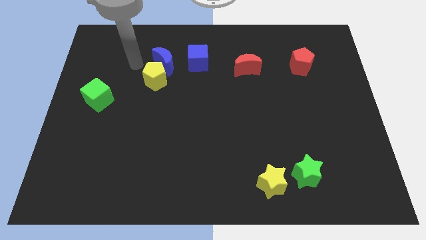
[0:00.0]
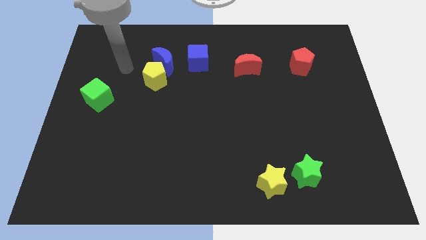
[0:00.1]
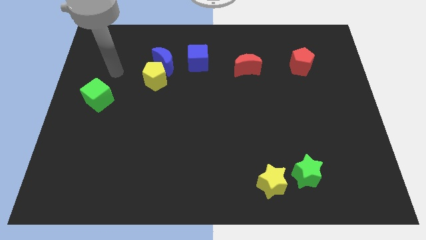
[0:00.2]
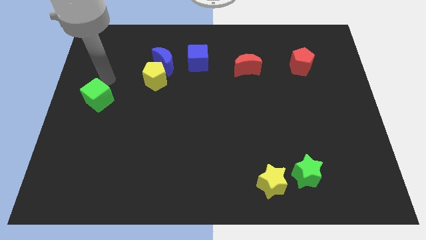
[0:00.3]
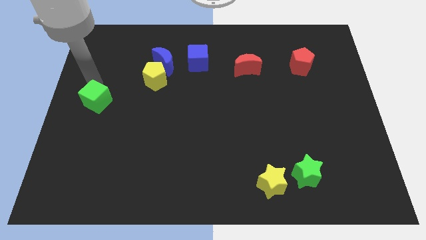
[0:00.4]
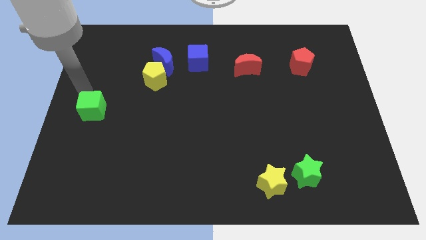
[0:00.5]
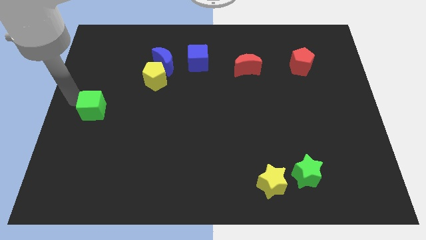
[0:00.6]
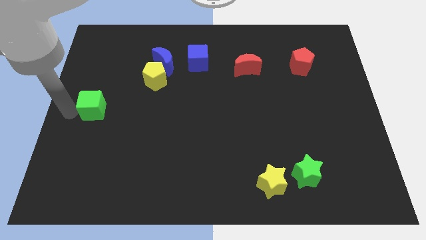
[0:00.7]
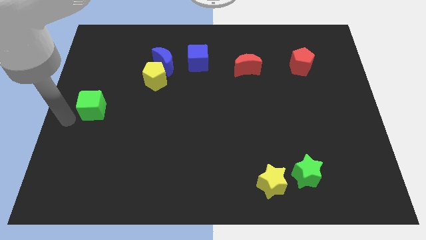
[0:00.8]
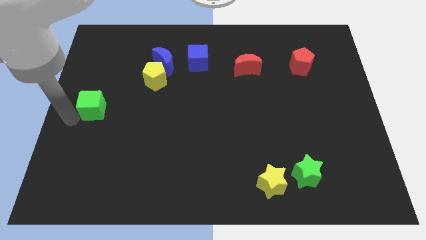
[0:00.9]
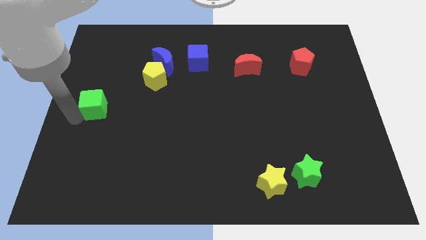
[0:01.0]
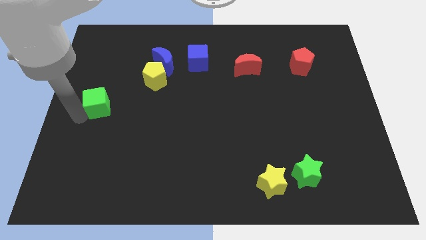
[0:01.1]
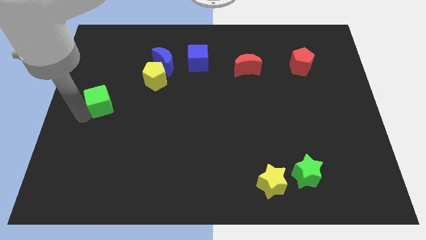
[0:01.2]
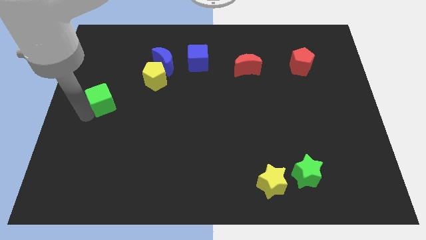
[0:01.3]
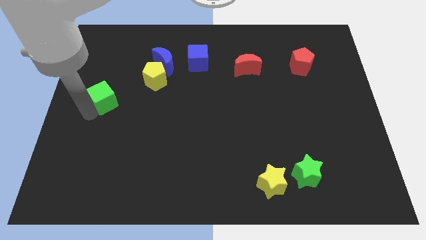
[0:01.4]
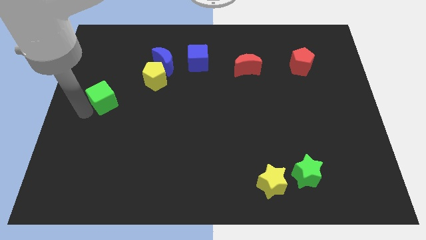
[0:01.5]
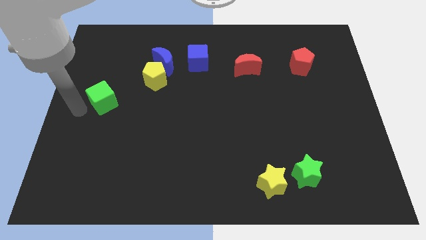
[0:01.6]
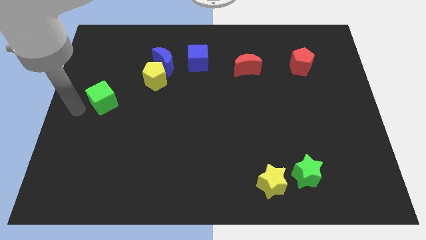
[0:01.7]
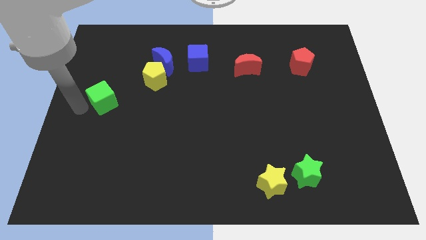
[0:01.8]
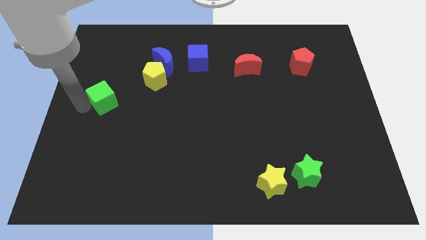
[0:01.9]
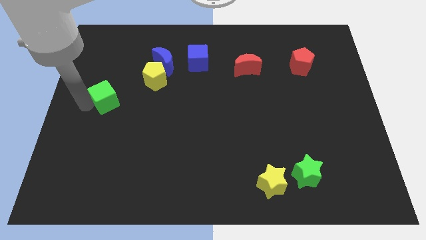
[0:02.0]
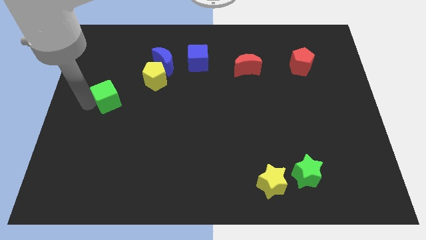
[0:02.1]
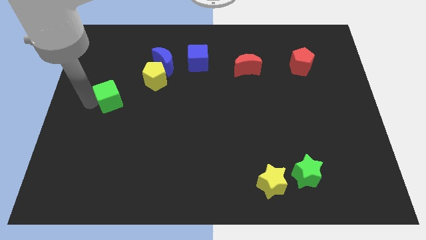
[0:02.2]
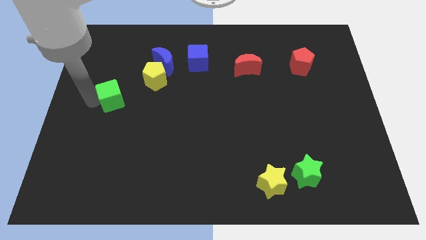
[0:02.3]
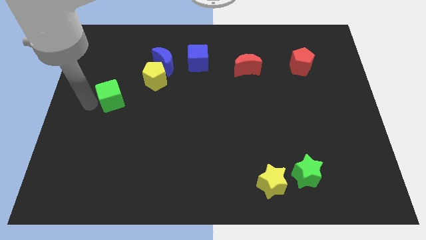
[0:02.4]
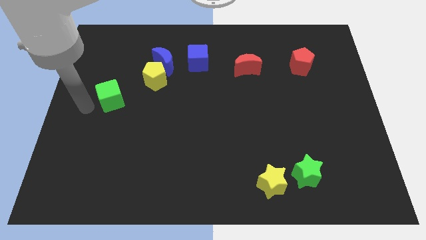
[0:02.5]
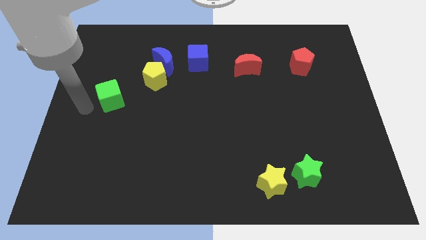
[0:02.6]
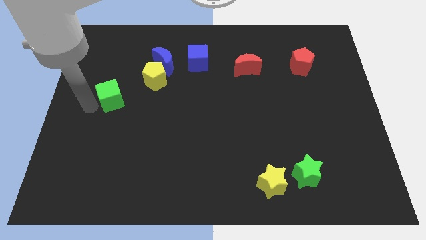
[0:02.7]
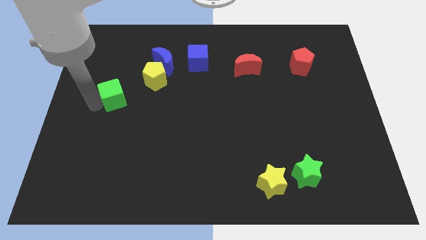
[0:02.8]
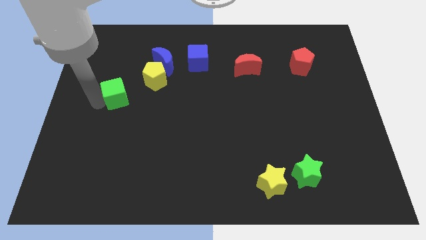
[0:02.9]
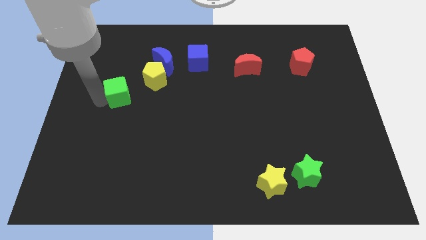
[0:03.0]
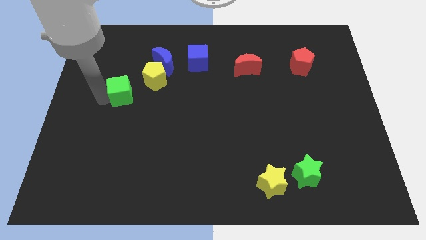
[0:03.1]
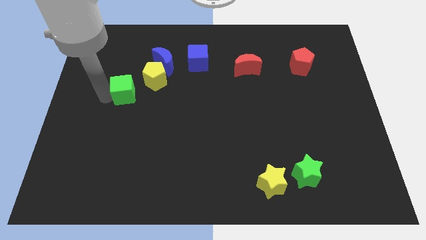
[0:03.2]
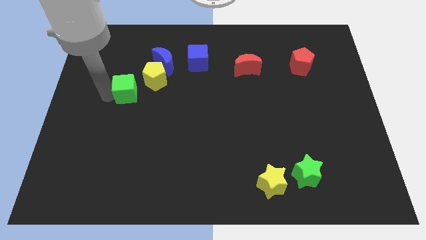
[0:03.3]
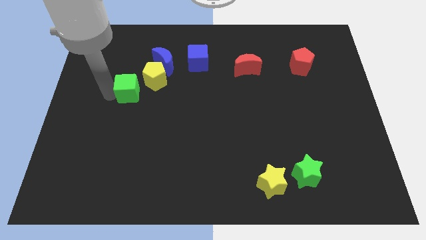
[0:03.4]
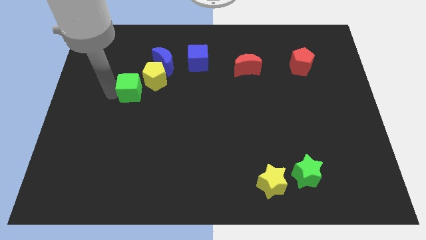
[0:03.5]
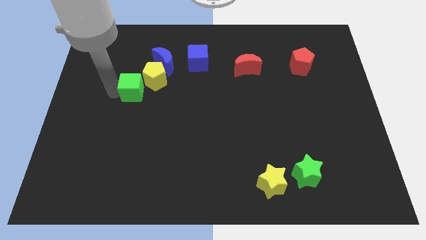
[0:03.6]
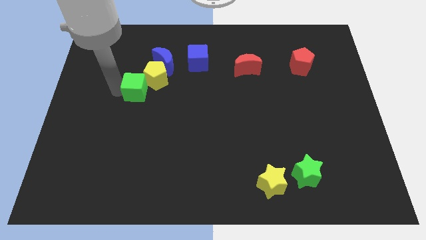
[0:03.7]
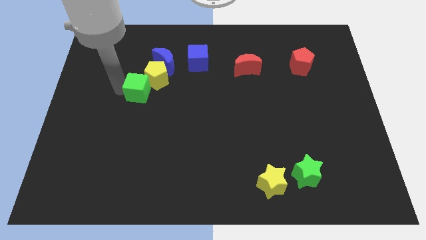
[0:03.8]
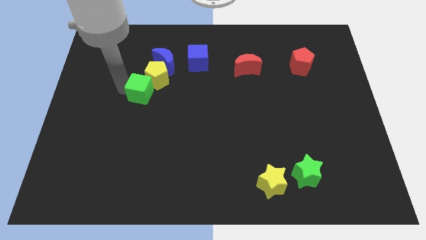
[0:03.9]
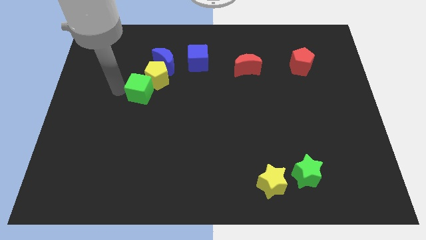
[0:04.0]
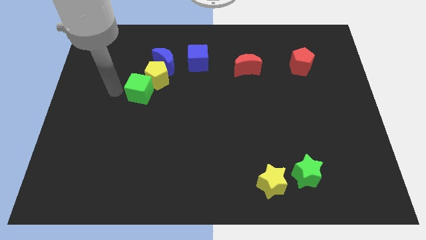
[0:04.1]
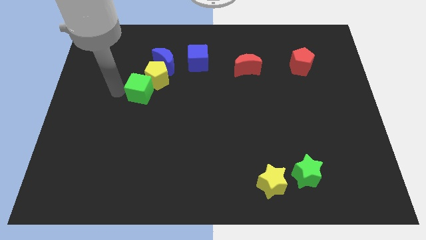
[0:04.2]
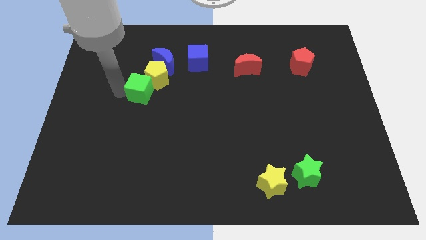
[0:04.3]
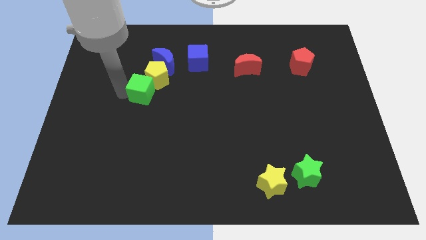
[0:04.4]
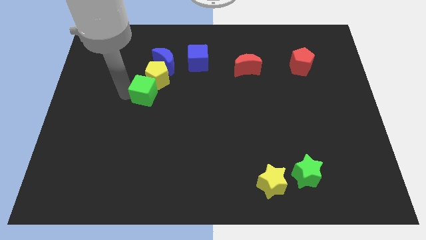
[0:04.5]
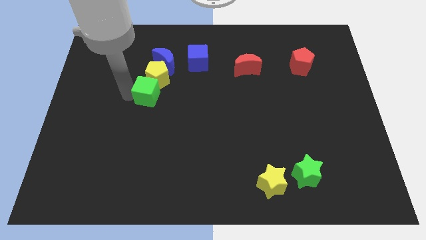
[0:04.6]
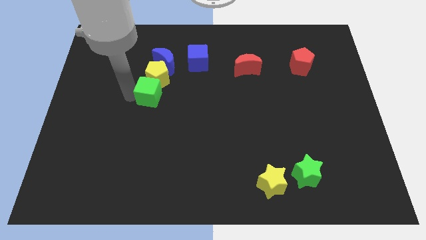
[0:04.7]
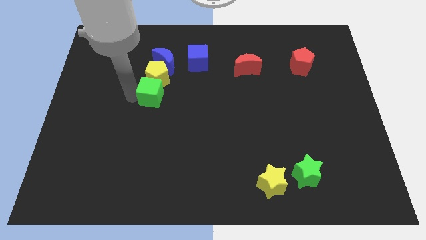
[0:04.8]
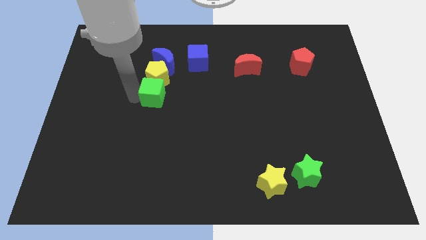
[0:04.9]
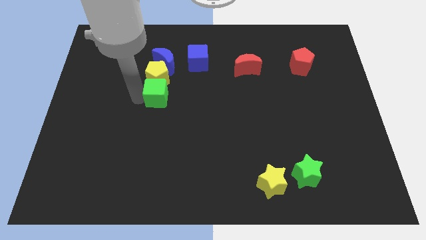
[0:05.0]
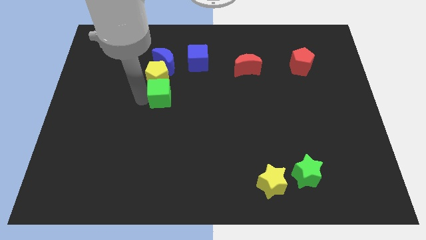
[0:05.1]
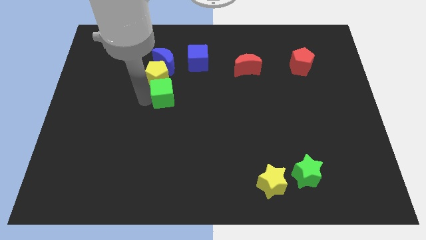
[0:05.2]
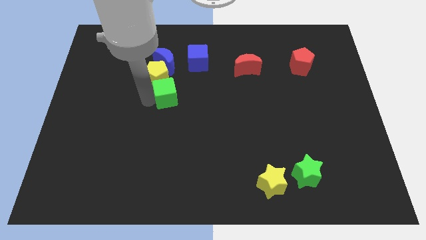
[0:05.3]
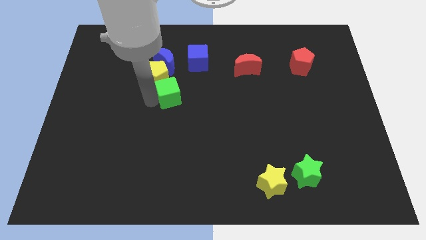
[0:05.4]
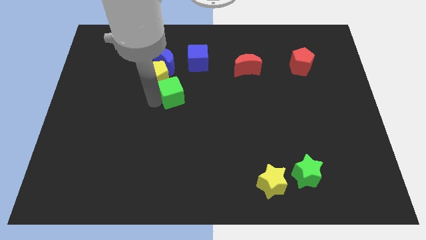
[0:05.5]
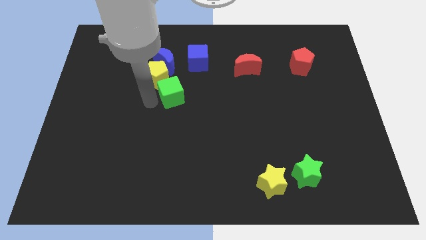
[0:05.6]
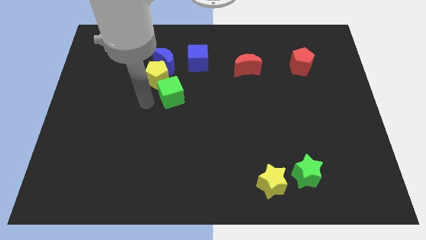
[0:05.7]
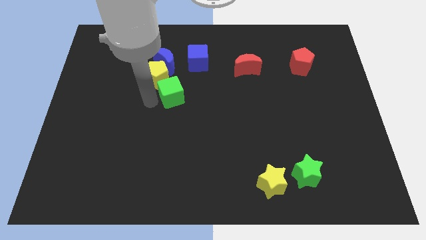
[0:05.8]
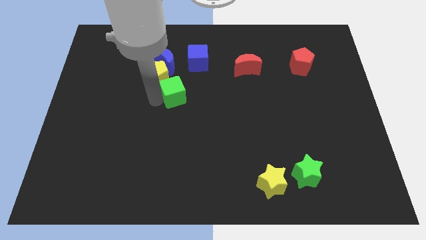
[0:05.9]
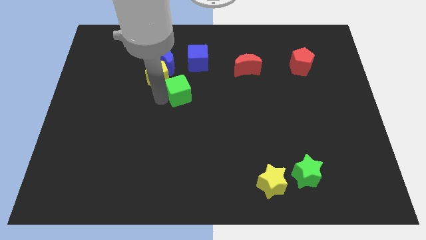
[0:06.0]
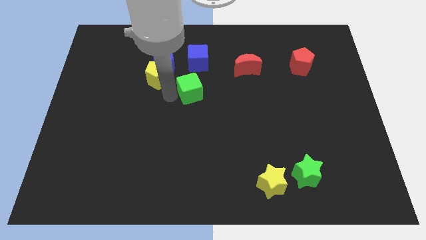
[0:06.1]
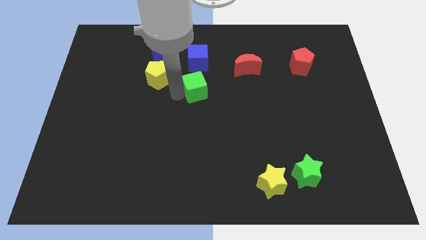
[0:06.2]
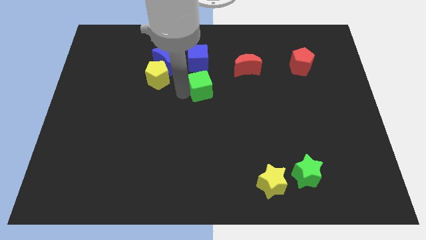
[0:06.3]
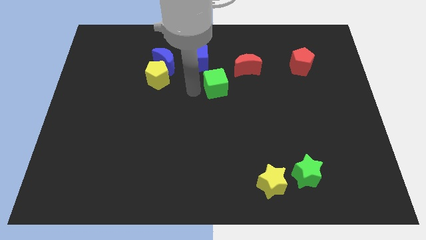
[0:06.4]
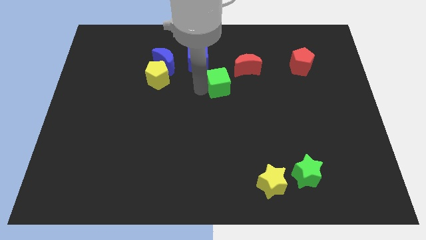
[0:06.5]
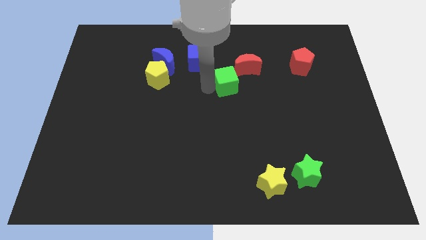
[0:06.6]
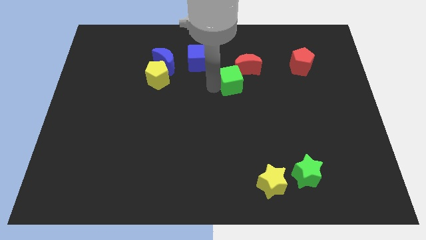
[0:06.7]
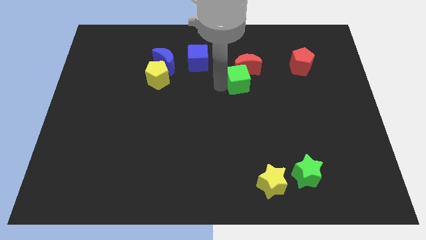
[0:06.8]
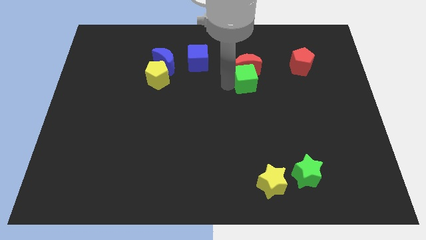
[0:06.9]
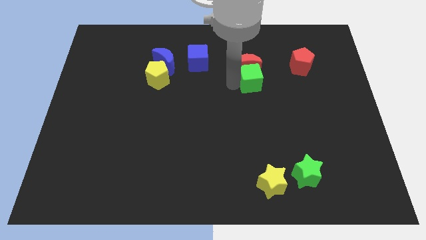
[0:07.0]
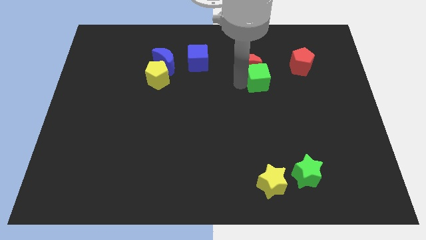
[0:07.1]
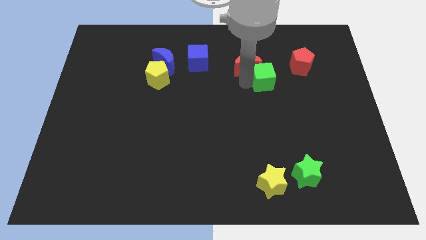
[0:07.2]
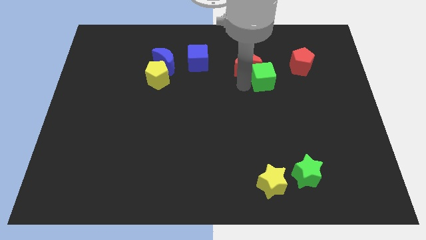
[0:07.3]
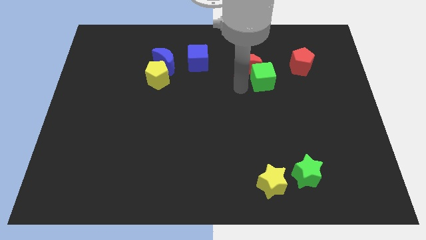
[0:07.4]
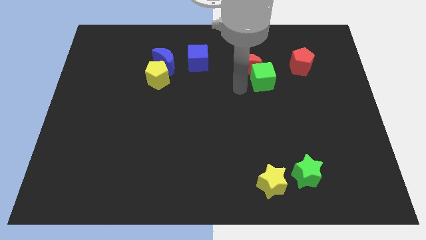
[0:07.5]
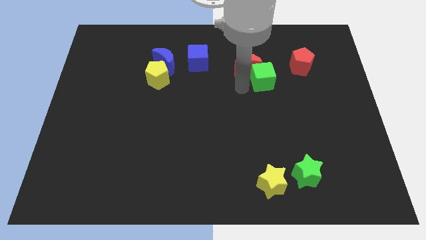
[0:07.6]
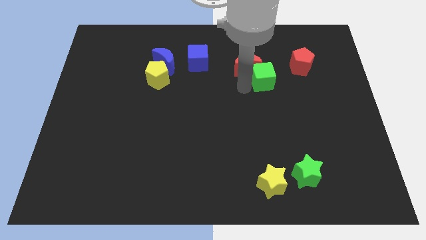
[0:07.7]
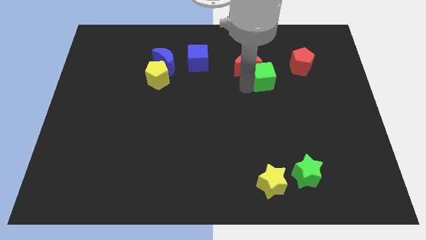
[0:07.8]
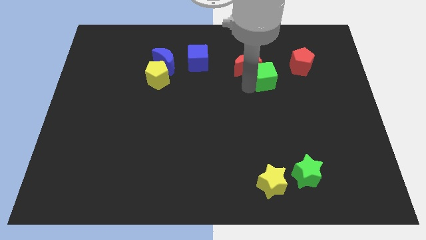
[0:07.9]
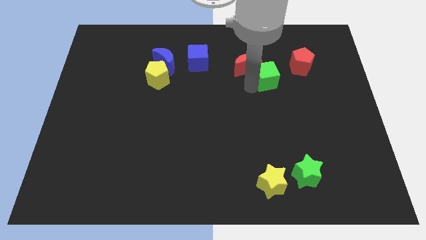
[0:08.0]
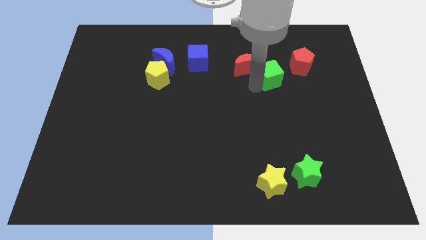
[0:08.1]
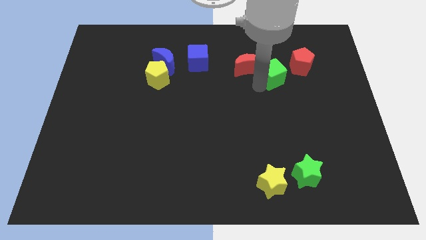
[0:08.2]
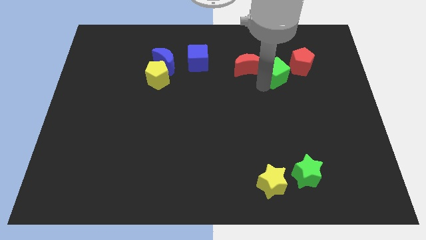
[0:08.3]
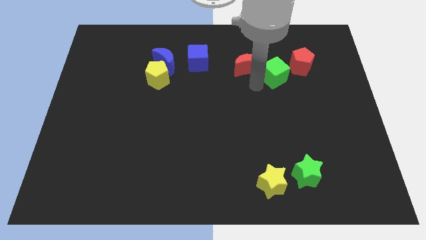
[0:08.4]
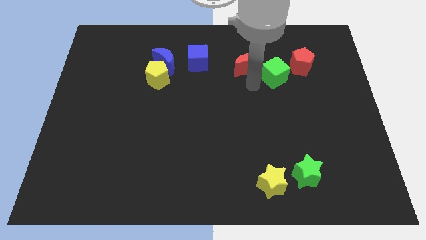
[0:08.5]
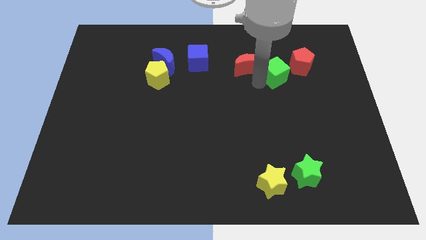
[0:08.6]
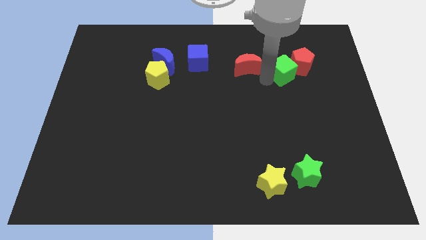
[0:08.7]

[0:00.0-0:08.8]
move the green cube next to the red pentagon
